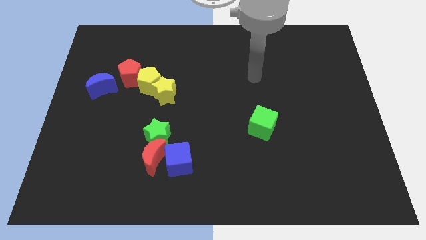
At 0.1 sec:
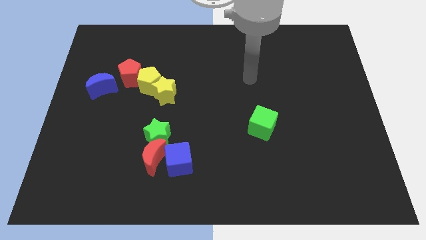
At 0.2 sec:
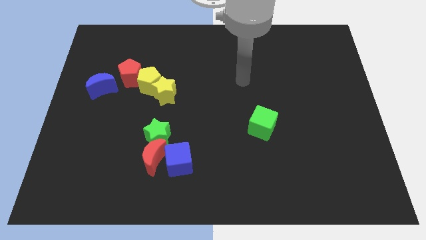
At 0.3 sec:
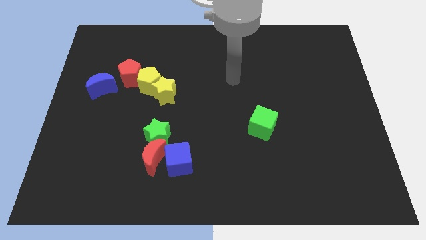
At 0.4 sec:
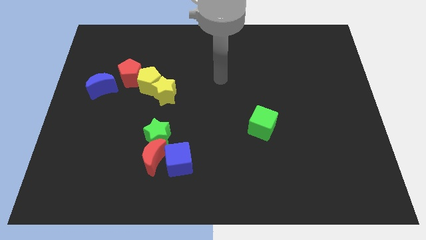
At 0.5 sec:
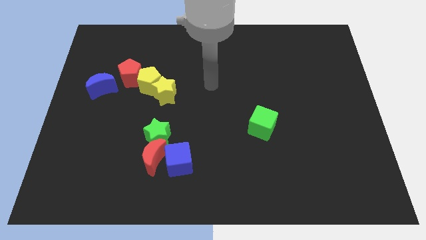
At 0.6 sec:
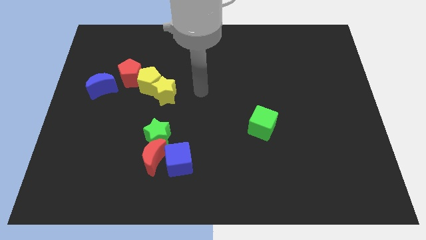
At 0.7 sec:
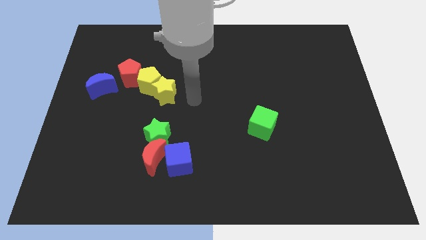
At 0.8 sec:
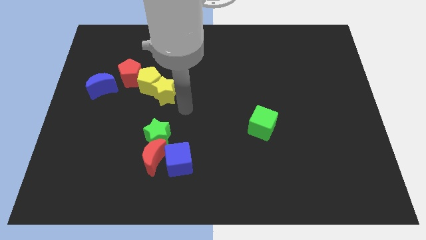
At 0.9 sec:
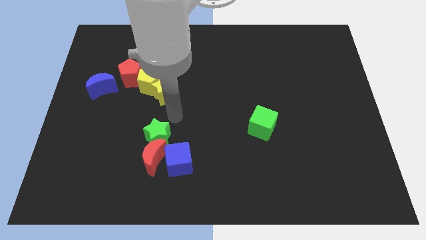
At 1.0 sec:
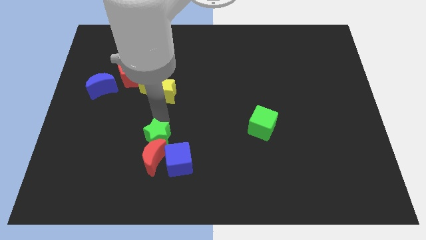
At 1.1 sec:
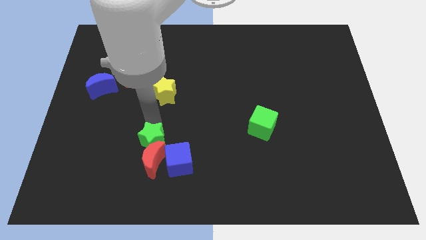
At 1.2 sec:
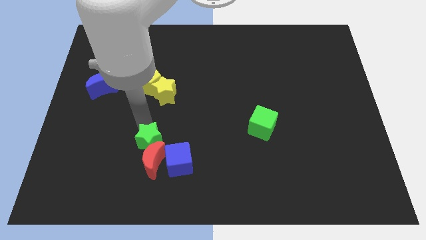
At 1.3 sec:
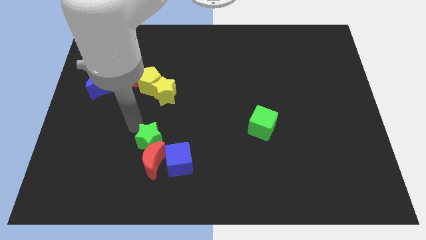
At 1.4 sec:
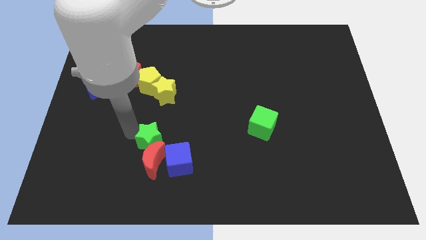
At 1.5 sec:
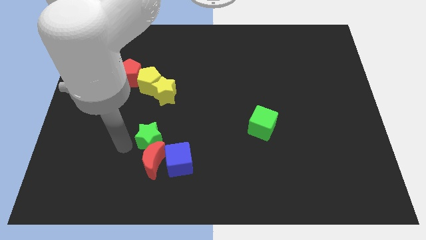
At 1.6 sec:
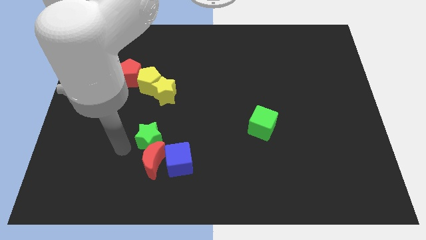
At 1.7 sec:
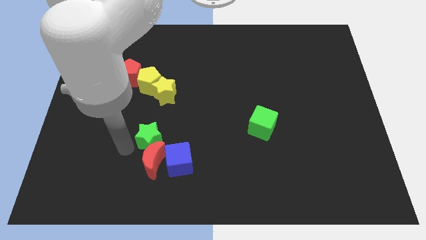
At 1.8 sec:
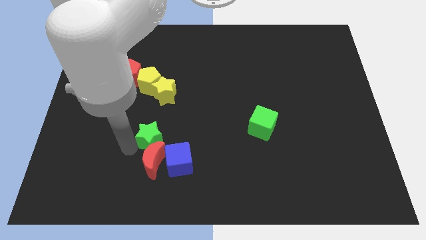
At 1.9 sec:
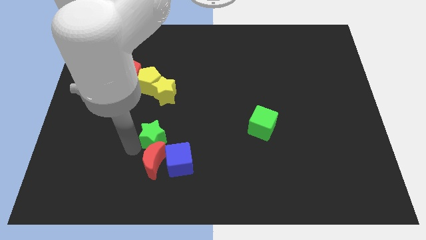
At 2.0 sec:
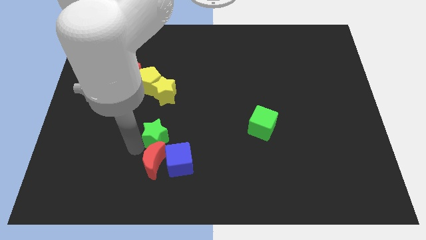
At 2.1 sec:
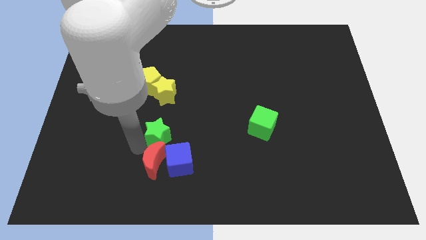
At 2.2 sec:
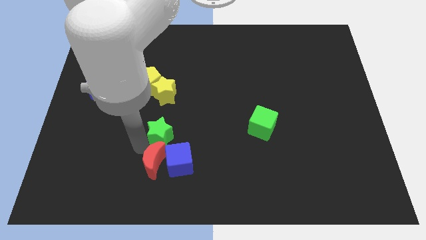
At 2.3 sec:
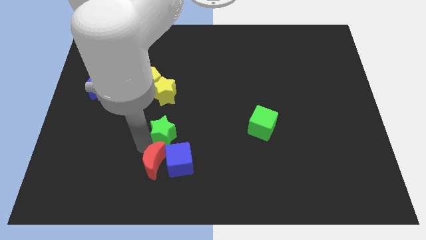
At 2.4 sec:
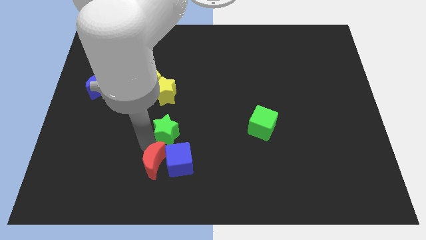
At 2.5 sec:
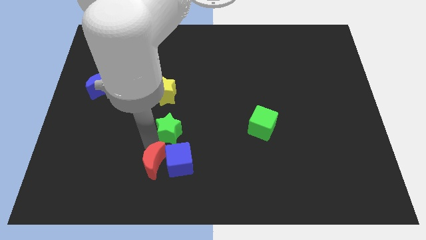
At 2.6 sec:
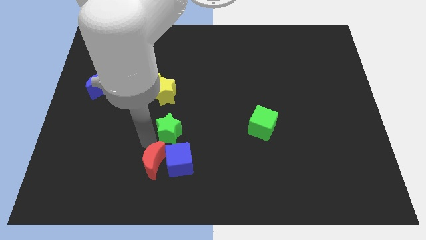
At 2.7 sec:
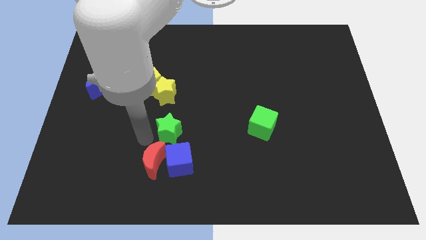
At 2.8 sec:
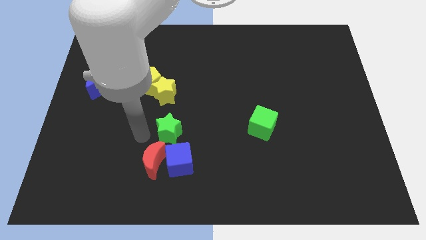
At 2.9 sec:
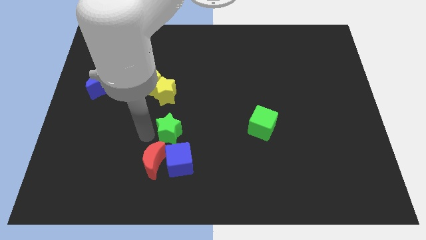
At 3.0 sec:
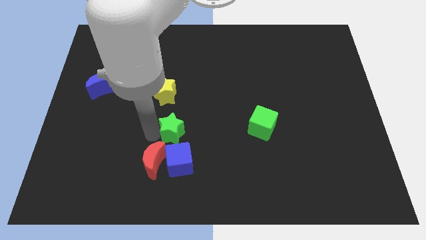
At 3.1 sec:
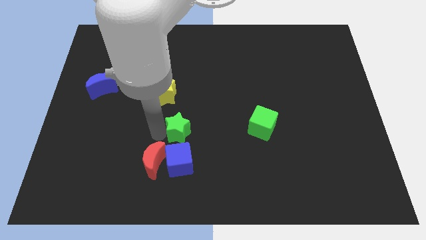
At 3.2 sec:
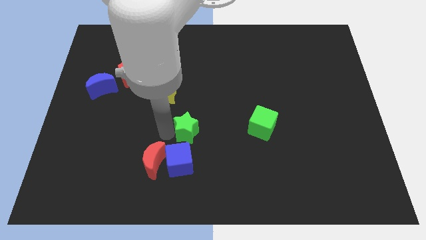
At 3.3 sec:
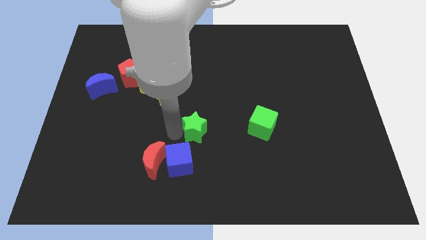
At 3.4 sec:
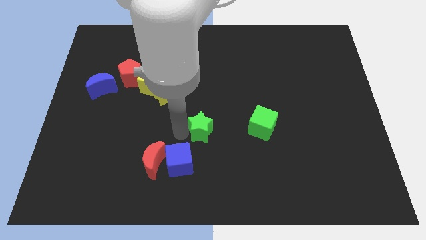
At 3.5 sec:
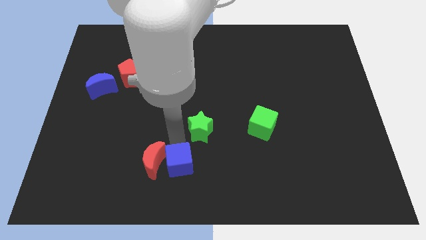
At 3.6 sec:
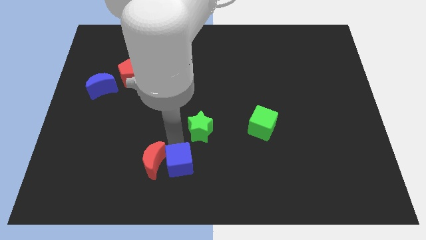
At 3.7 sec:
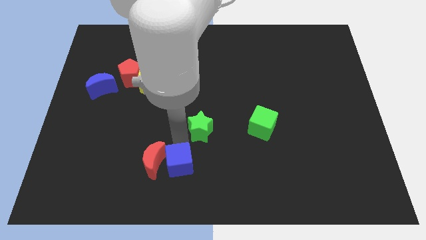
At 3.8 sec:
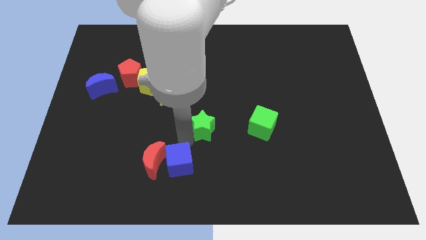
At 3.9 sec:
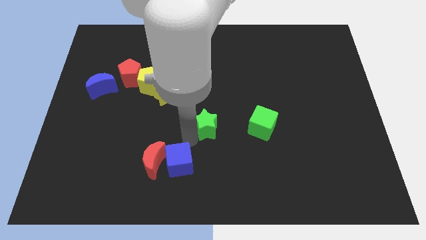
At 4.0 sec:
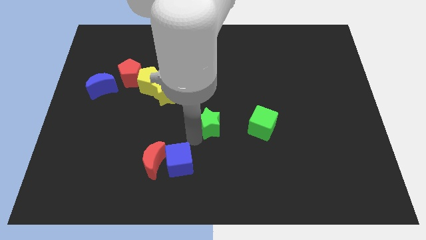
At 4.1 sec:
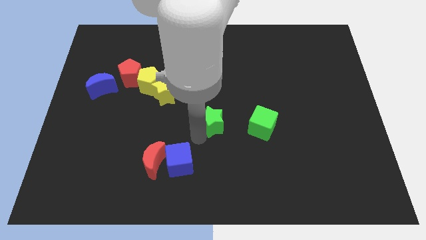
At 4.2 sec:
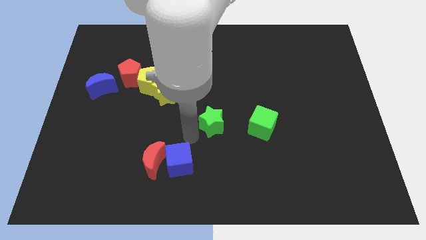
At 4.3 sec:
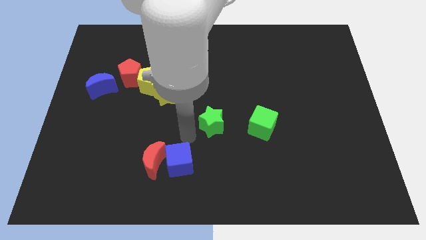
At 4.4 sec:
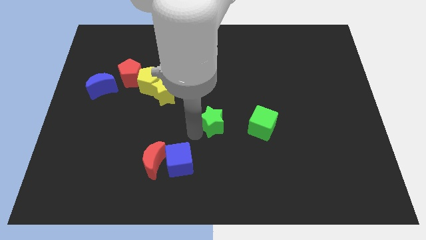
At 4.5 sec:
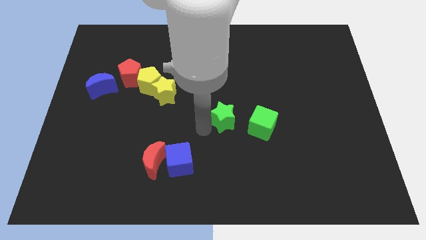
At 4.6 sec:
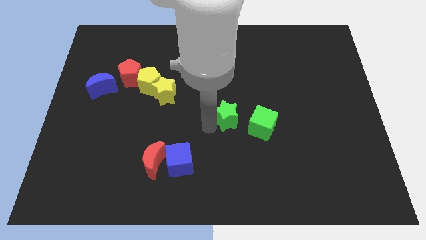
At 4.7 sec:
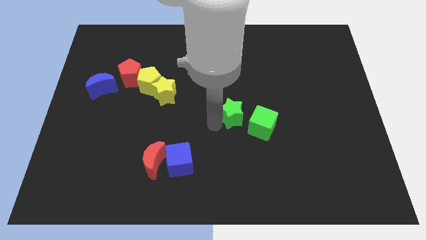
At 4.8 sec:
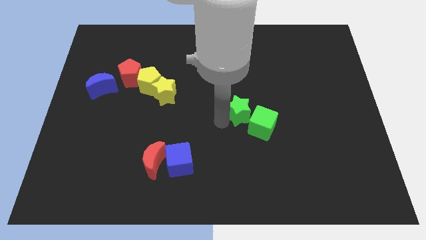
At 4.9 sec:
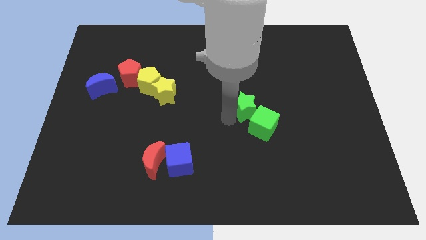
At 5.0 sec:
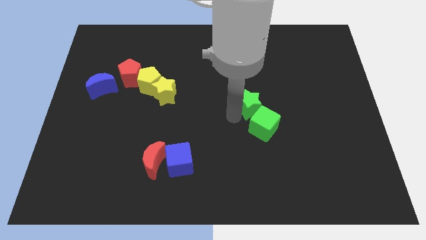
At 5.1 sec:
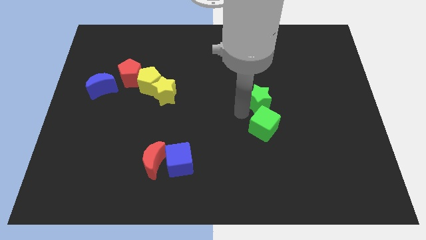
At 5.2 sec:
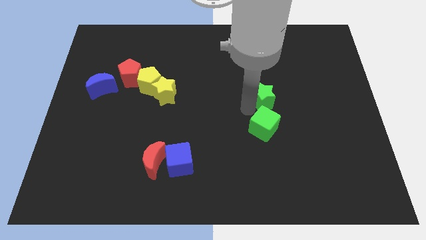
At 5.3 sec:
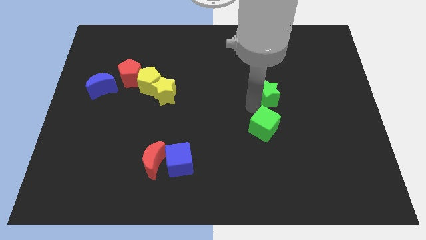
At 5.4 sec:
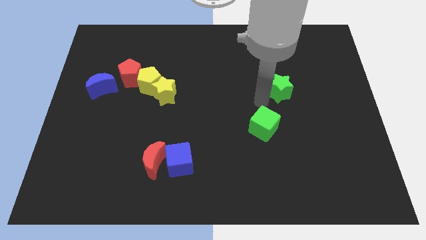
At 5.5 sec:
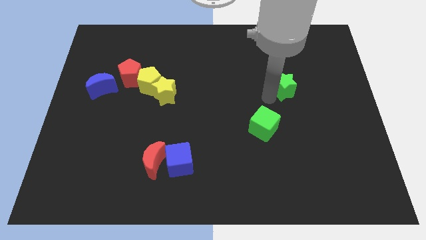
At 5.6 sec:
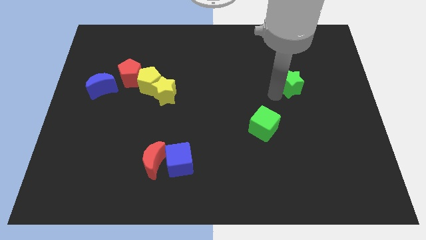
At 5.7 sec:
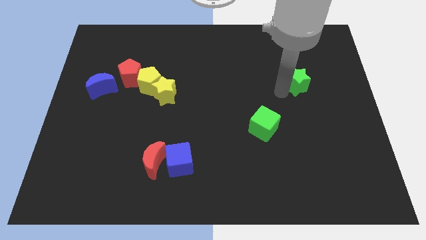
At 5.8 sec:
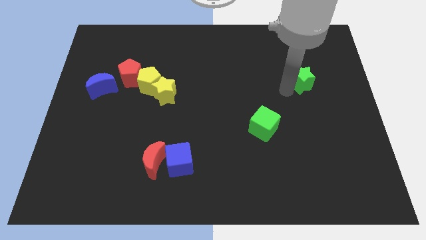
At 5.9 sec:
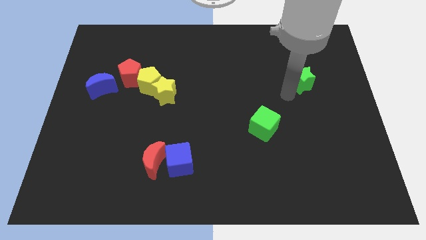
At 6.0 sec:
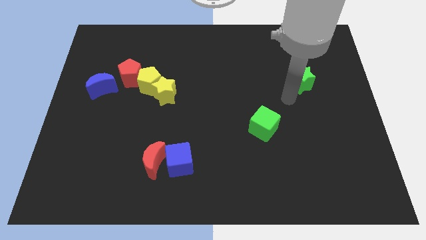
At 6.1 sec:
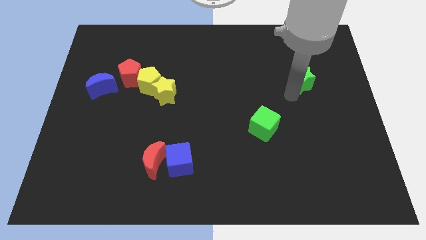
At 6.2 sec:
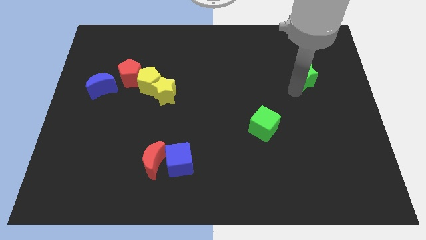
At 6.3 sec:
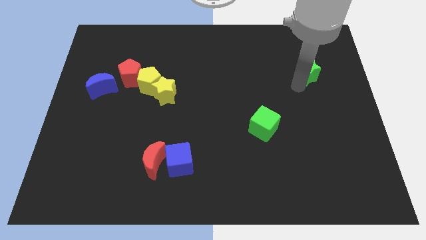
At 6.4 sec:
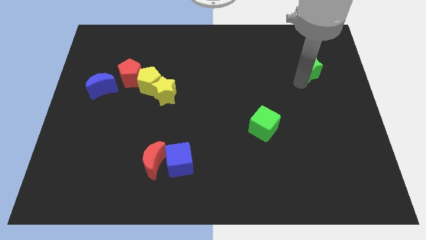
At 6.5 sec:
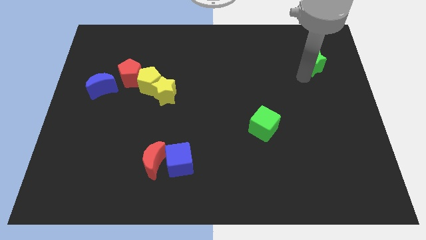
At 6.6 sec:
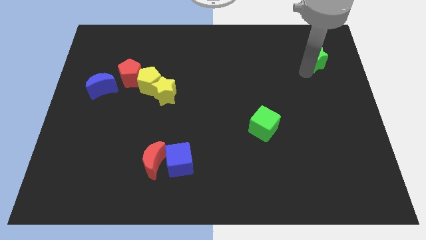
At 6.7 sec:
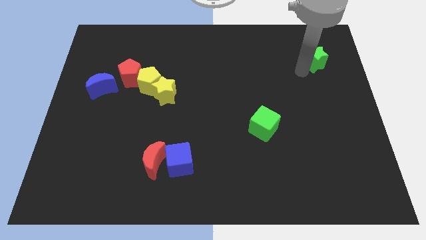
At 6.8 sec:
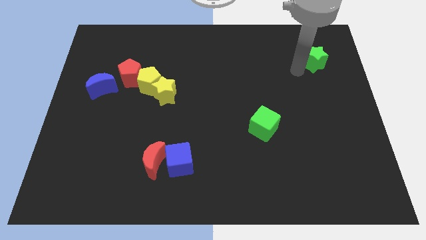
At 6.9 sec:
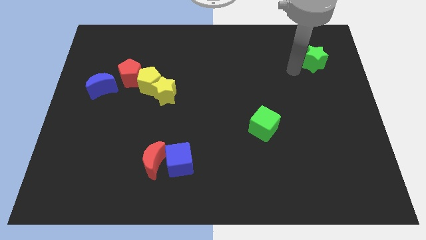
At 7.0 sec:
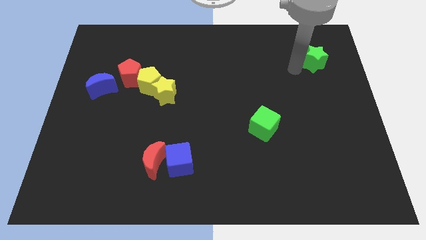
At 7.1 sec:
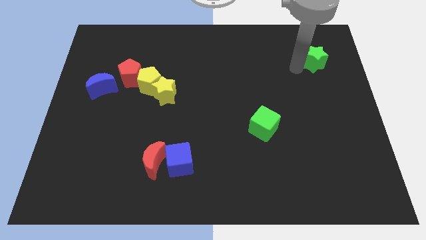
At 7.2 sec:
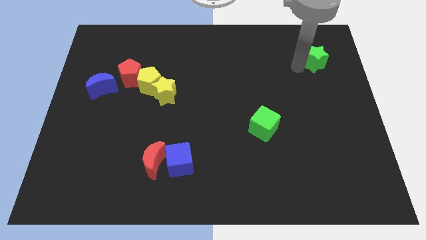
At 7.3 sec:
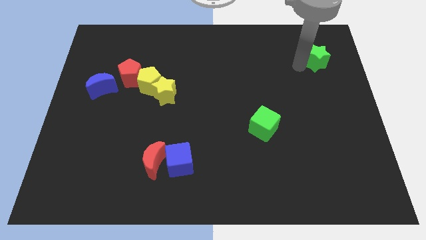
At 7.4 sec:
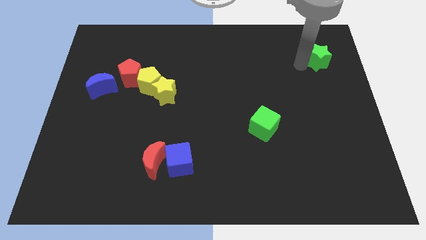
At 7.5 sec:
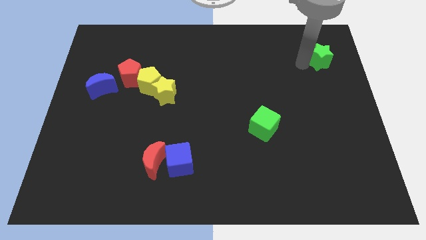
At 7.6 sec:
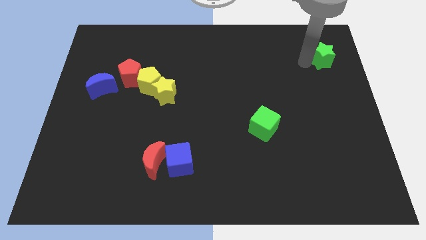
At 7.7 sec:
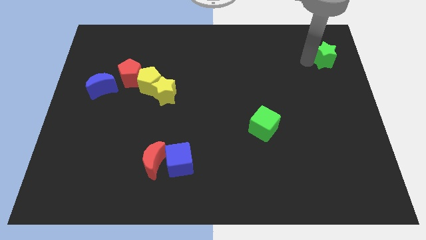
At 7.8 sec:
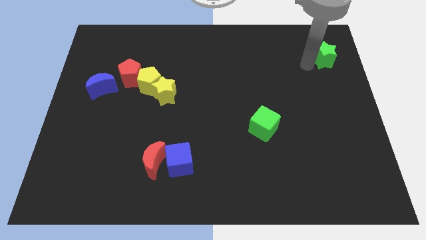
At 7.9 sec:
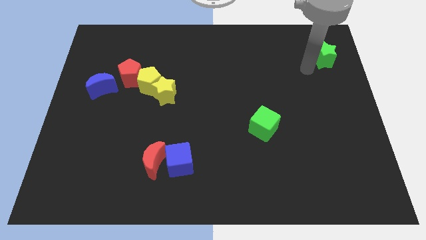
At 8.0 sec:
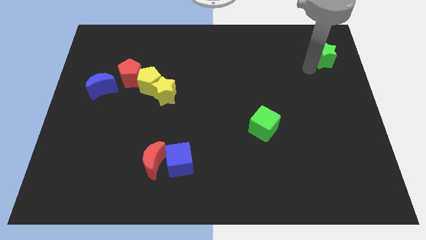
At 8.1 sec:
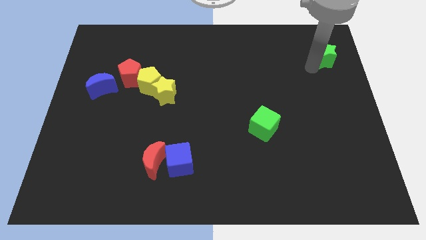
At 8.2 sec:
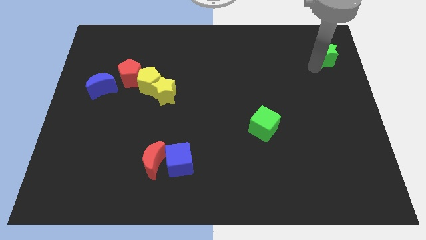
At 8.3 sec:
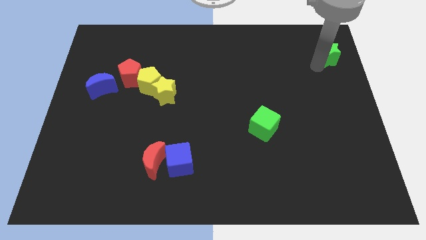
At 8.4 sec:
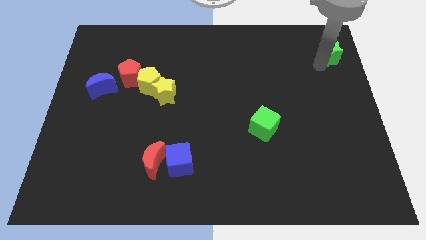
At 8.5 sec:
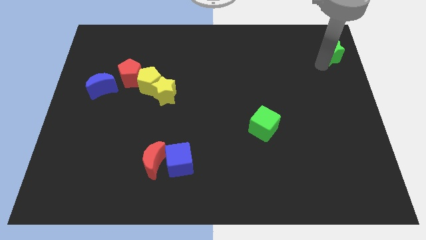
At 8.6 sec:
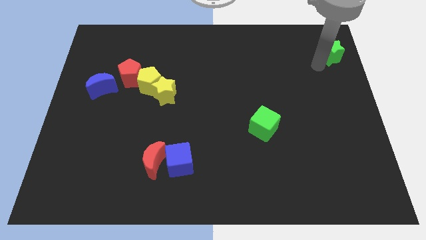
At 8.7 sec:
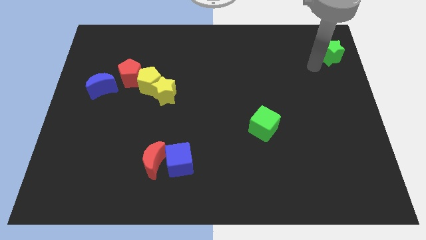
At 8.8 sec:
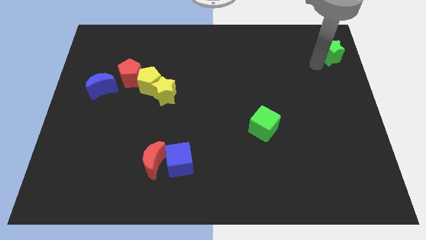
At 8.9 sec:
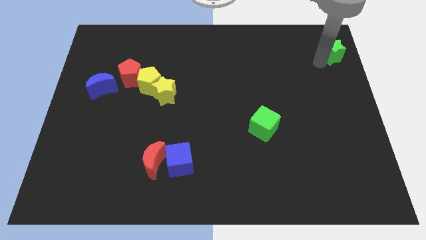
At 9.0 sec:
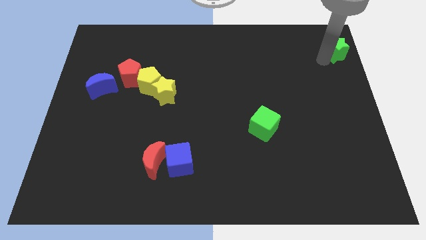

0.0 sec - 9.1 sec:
slide the green star to the top right
